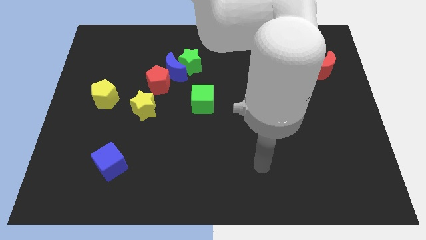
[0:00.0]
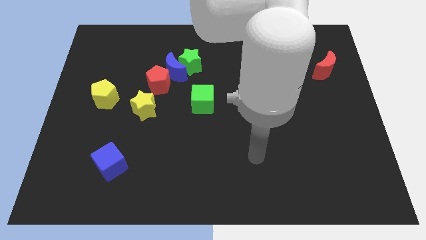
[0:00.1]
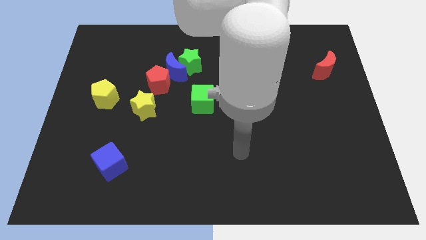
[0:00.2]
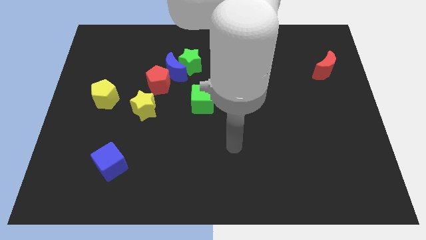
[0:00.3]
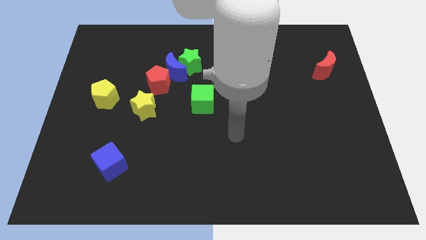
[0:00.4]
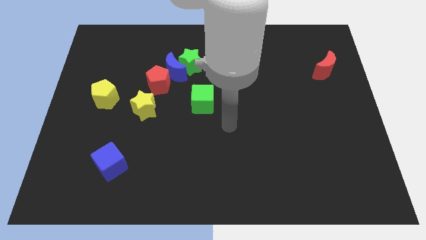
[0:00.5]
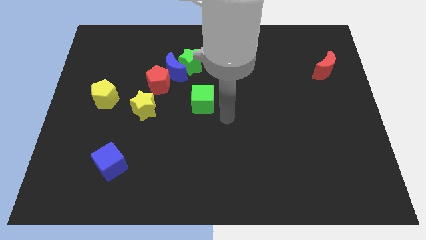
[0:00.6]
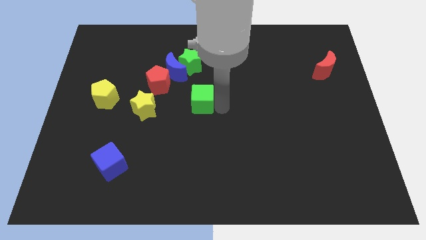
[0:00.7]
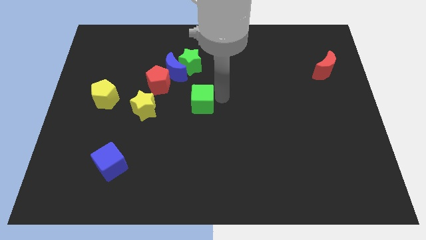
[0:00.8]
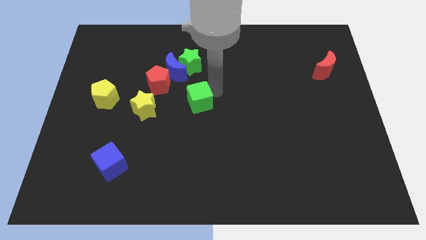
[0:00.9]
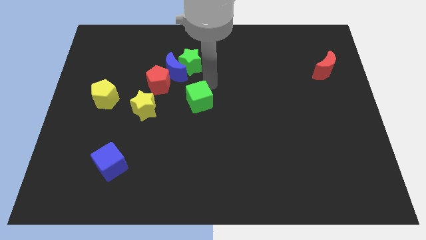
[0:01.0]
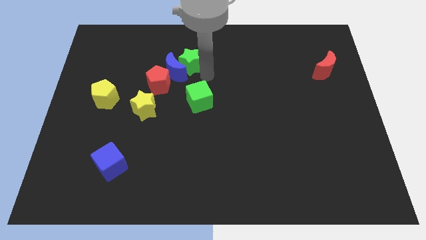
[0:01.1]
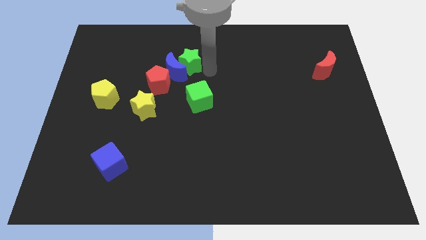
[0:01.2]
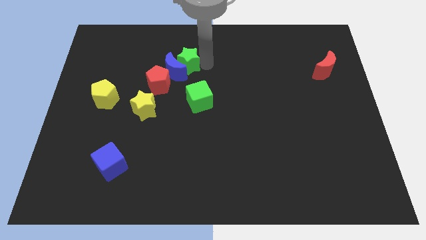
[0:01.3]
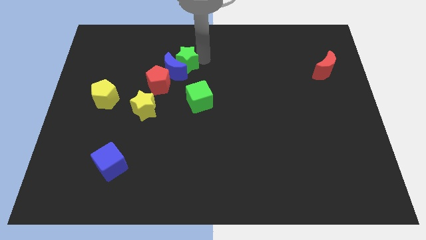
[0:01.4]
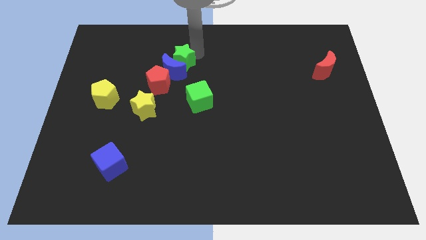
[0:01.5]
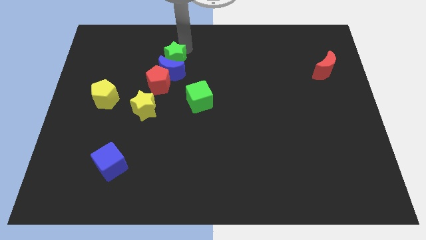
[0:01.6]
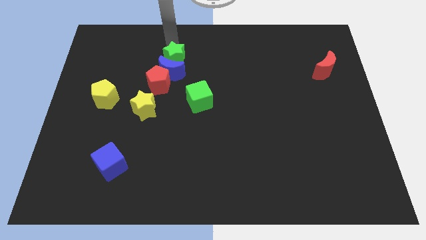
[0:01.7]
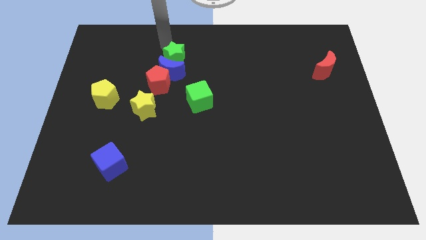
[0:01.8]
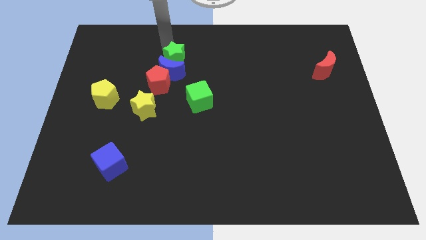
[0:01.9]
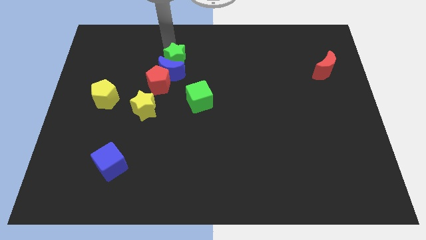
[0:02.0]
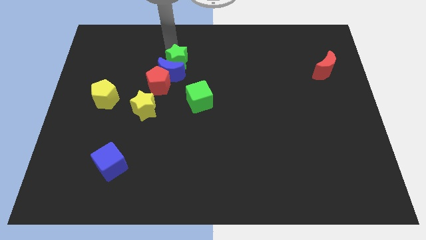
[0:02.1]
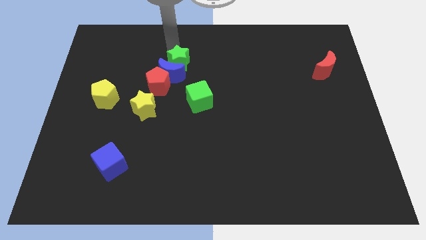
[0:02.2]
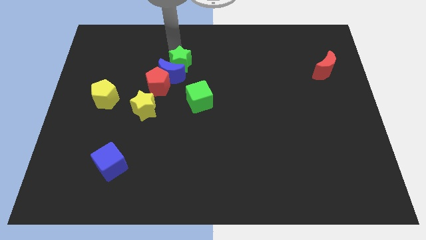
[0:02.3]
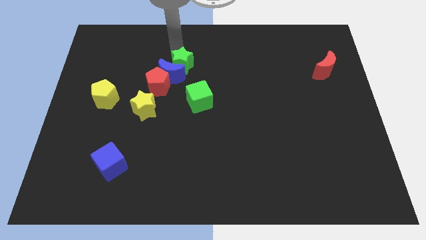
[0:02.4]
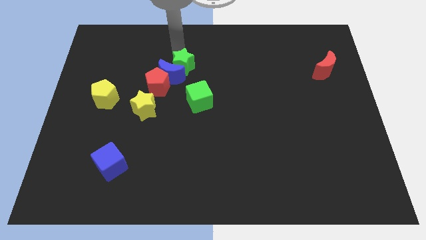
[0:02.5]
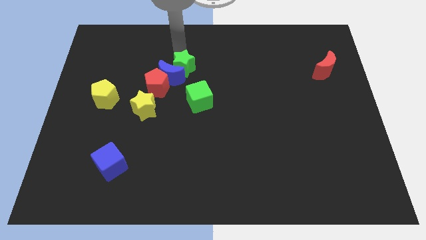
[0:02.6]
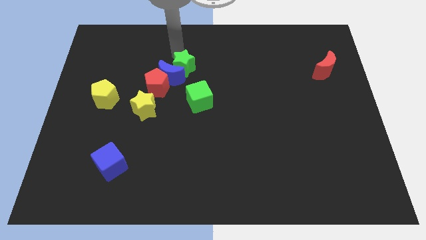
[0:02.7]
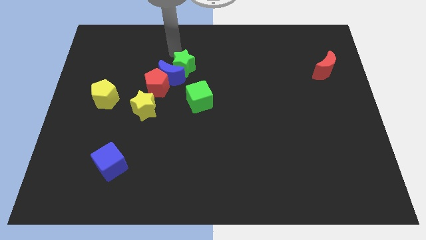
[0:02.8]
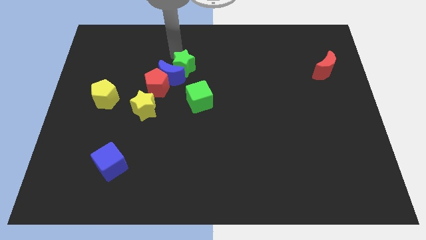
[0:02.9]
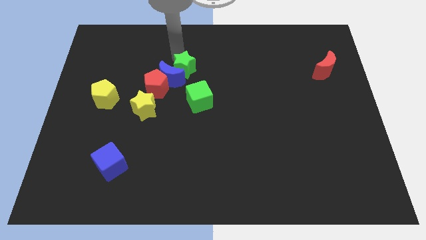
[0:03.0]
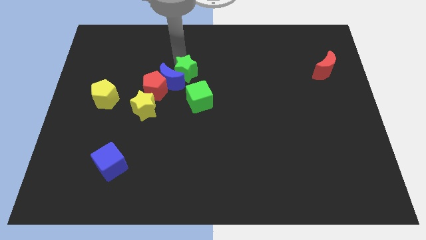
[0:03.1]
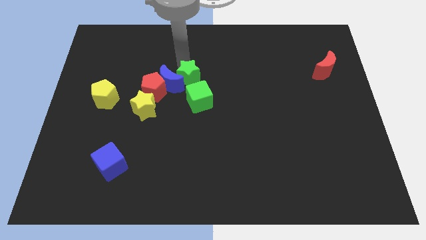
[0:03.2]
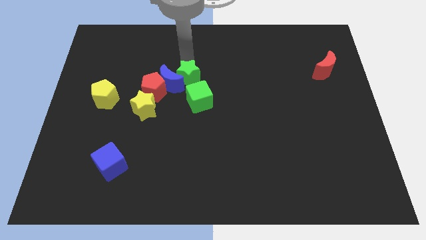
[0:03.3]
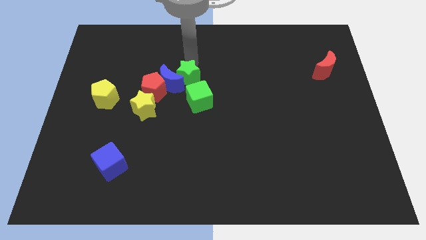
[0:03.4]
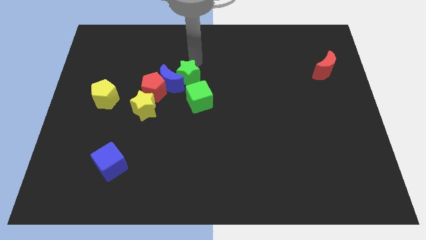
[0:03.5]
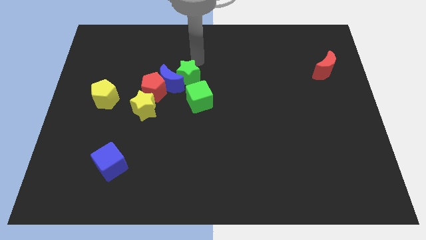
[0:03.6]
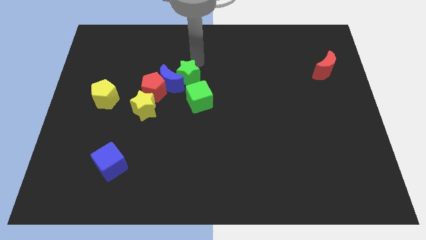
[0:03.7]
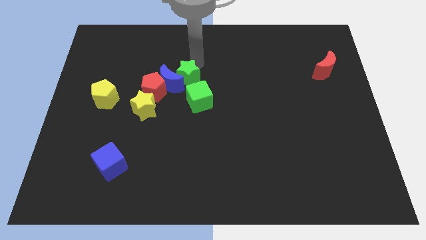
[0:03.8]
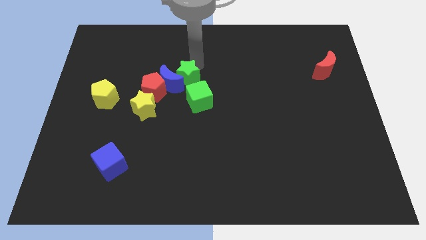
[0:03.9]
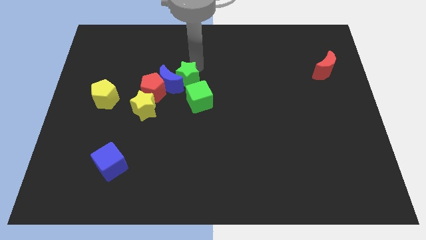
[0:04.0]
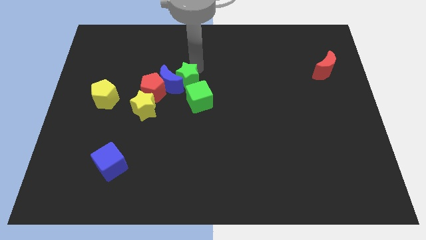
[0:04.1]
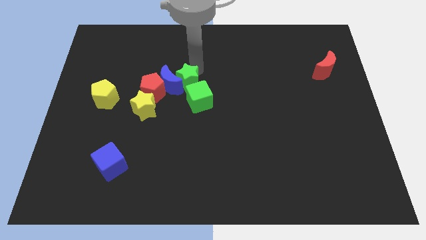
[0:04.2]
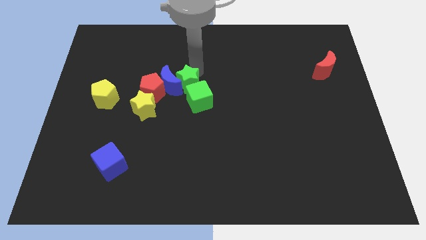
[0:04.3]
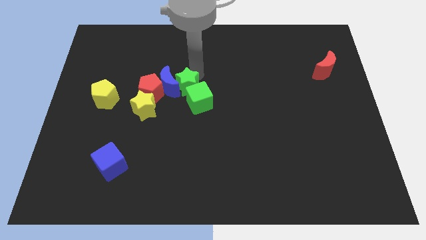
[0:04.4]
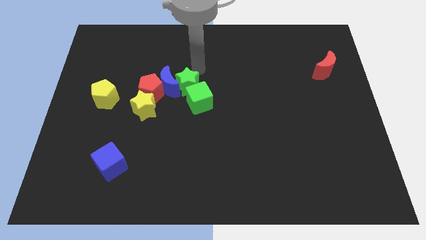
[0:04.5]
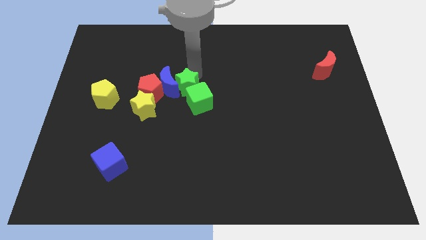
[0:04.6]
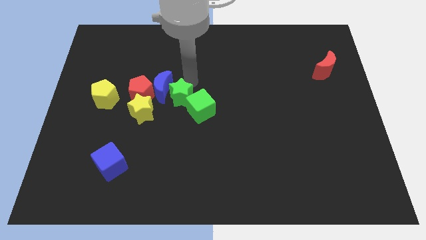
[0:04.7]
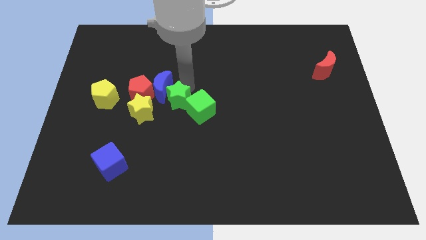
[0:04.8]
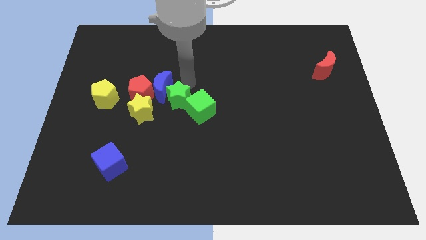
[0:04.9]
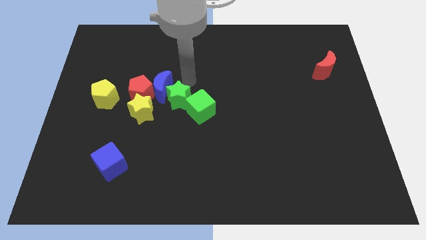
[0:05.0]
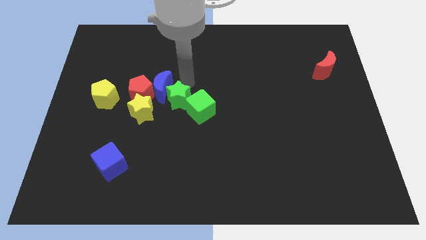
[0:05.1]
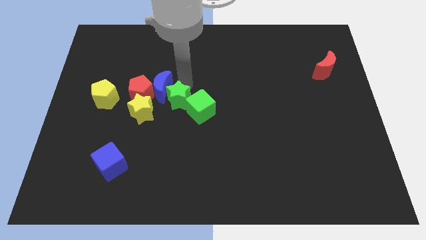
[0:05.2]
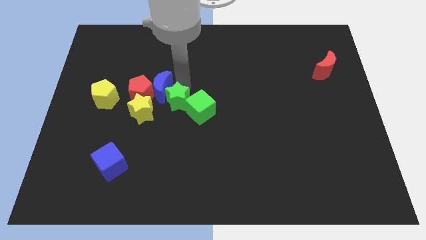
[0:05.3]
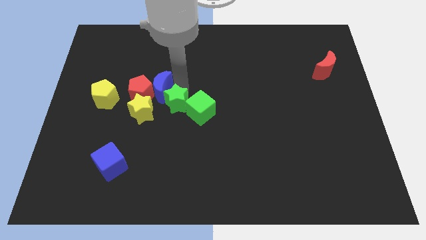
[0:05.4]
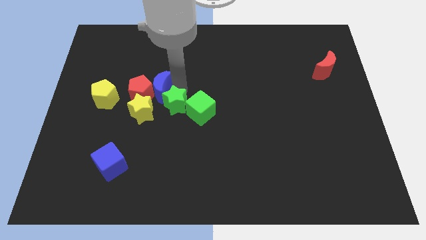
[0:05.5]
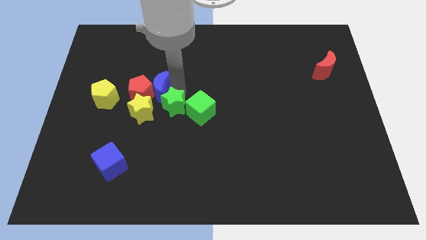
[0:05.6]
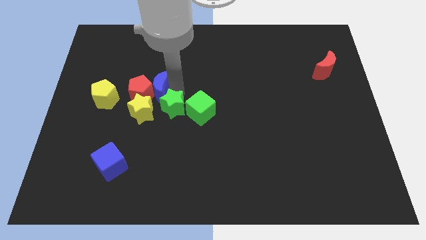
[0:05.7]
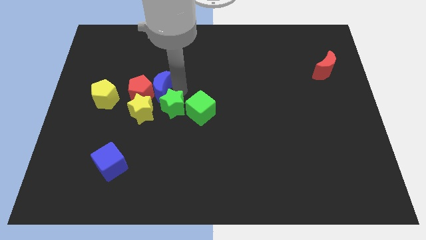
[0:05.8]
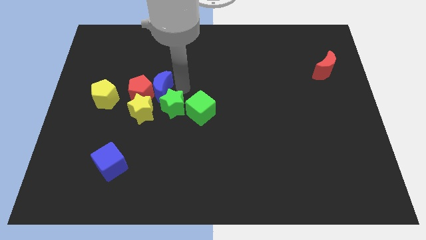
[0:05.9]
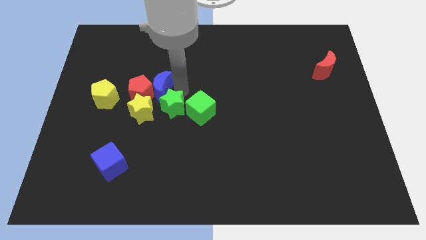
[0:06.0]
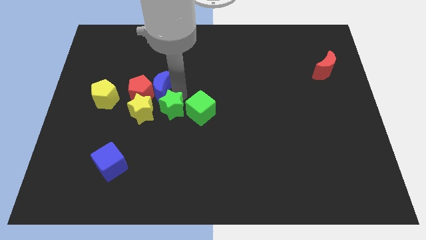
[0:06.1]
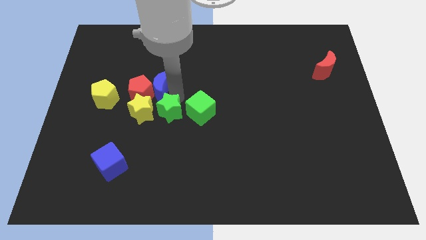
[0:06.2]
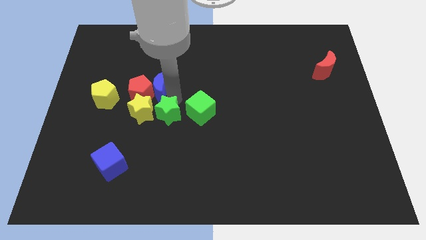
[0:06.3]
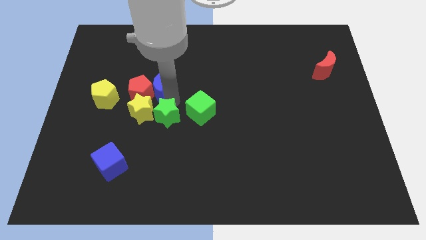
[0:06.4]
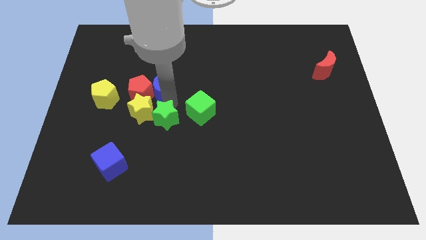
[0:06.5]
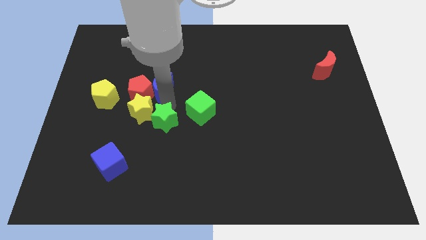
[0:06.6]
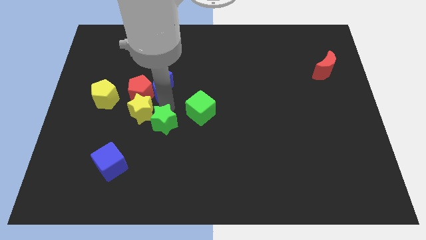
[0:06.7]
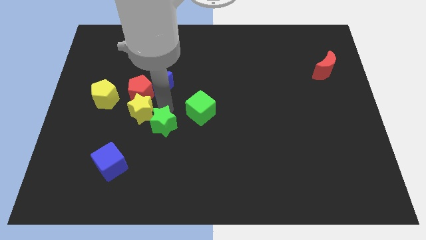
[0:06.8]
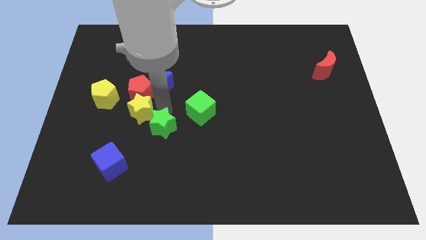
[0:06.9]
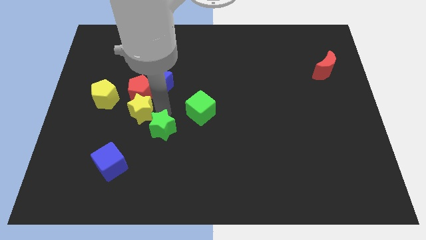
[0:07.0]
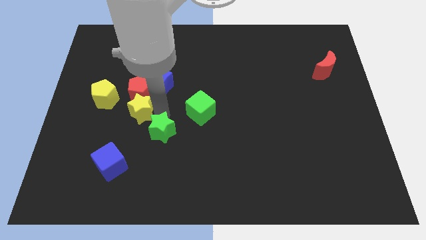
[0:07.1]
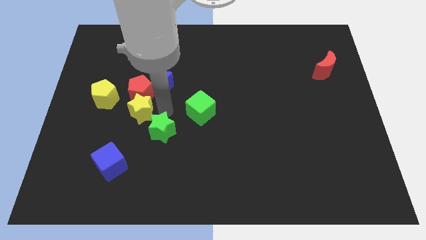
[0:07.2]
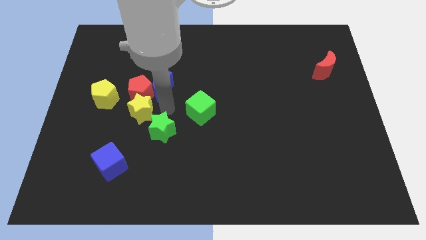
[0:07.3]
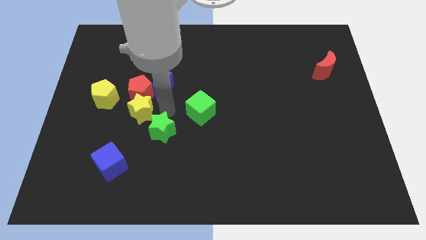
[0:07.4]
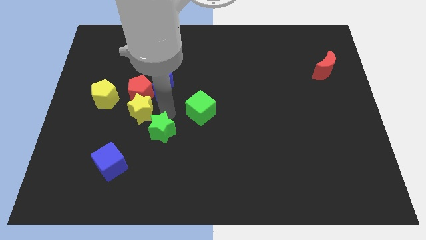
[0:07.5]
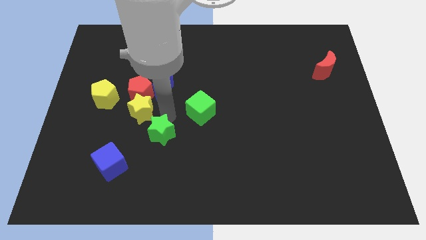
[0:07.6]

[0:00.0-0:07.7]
push the green star down

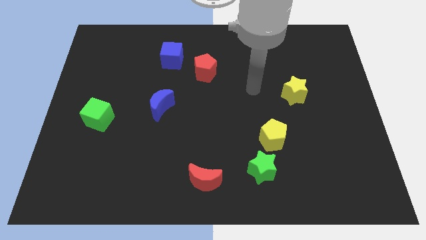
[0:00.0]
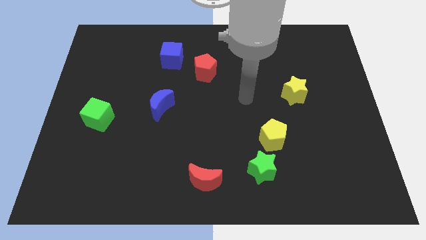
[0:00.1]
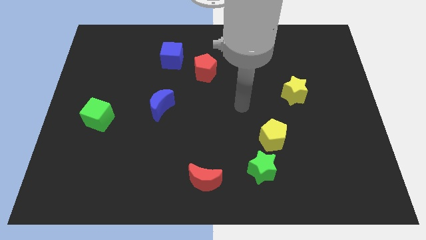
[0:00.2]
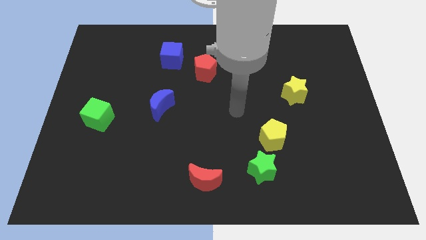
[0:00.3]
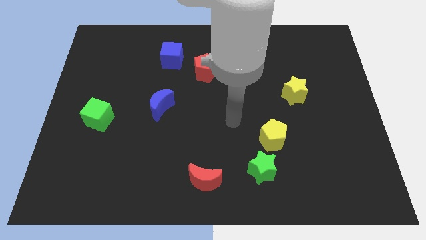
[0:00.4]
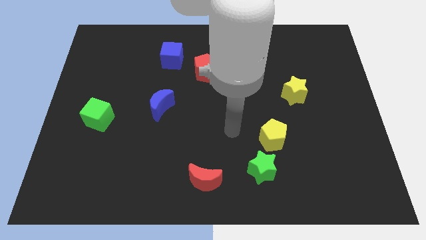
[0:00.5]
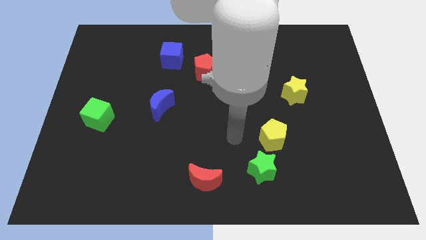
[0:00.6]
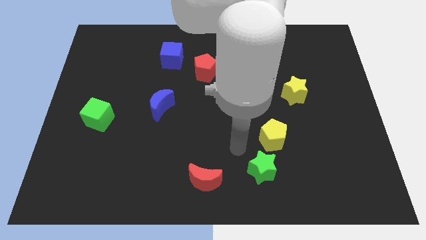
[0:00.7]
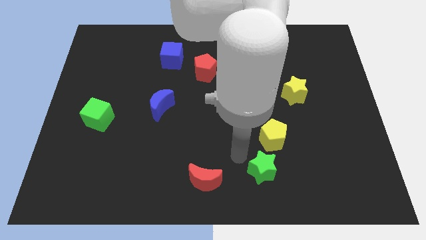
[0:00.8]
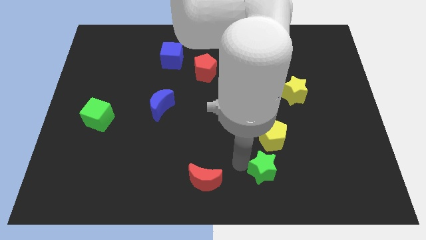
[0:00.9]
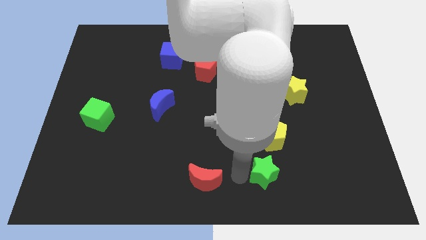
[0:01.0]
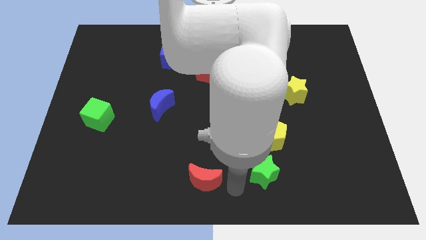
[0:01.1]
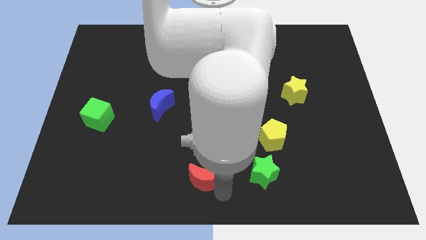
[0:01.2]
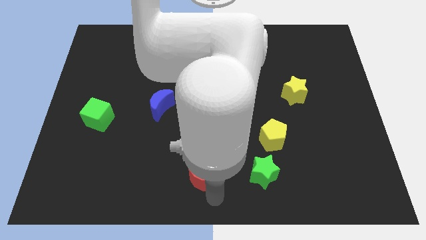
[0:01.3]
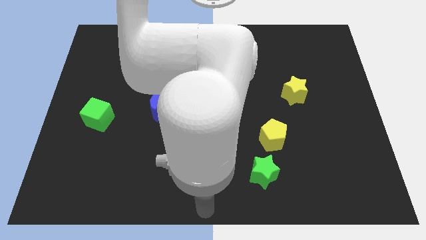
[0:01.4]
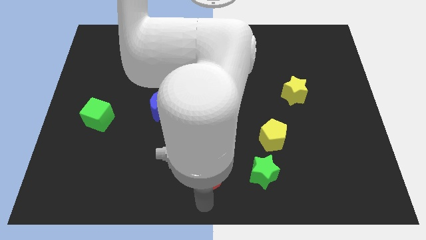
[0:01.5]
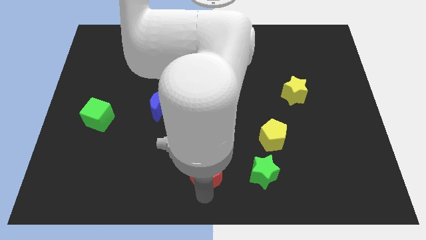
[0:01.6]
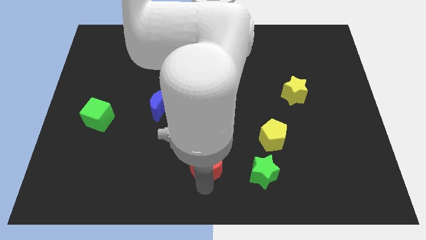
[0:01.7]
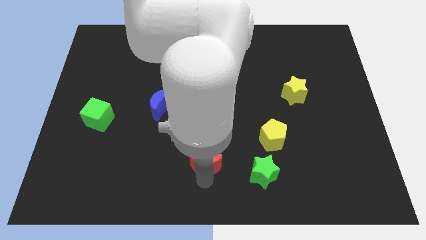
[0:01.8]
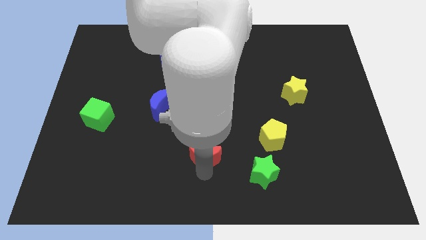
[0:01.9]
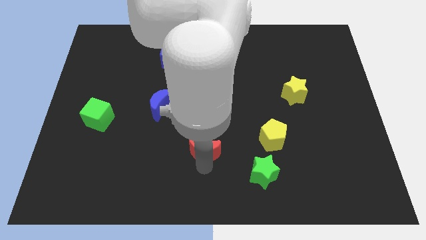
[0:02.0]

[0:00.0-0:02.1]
slightly push the red moon up
